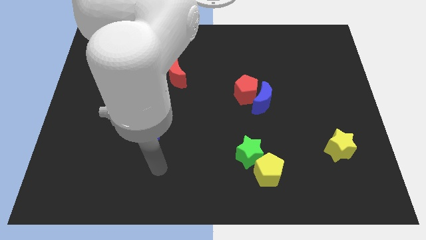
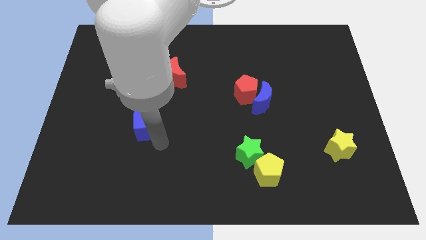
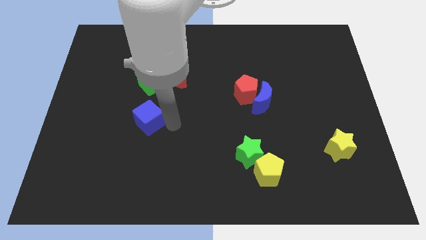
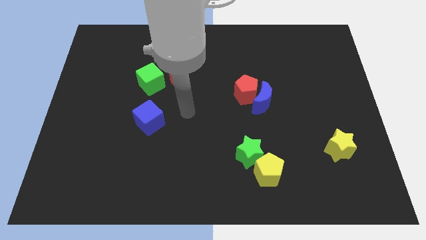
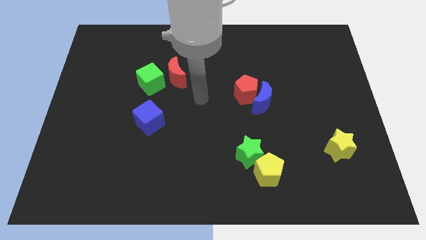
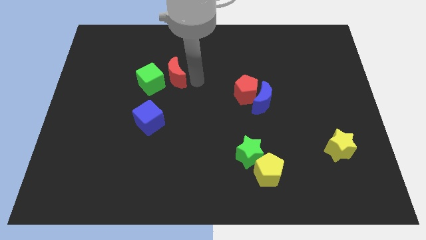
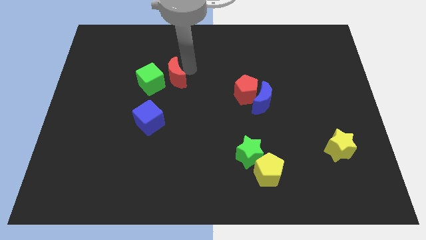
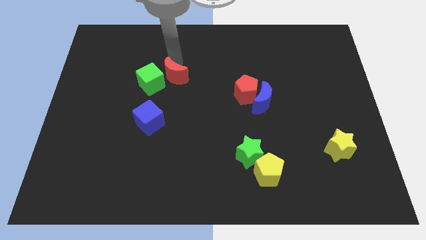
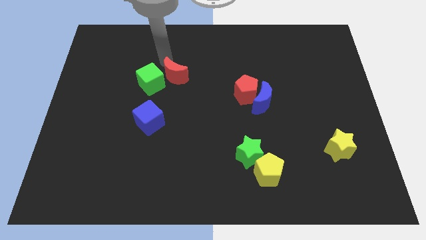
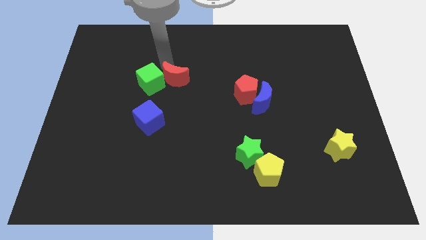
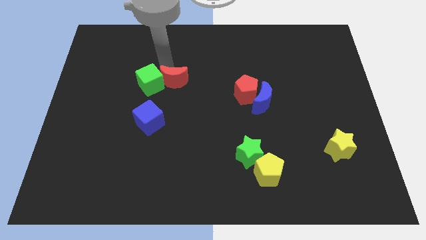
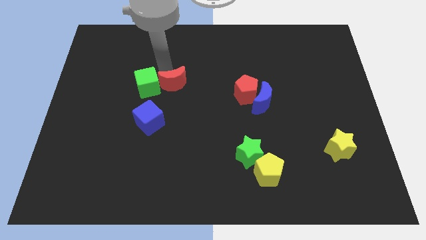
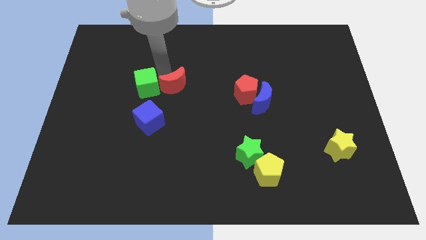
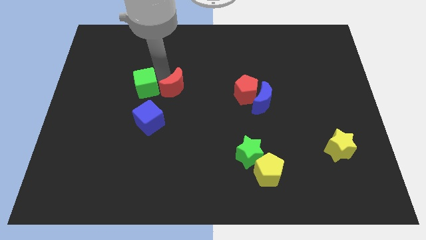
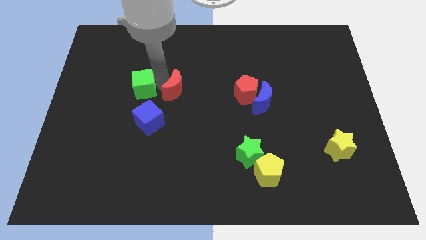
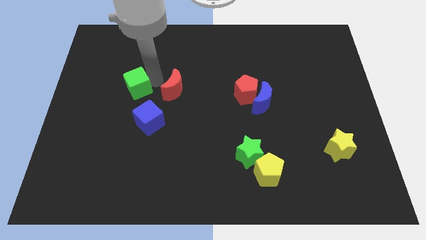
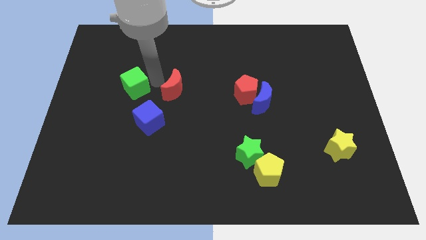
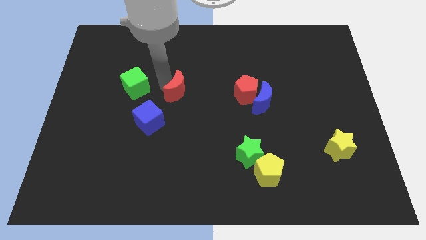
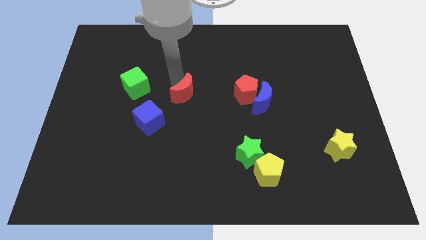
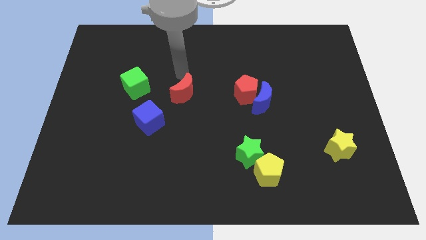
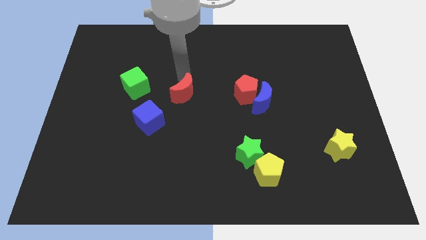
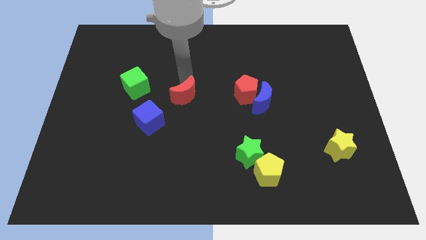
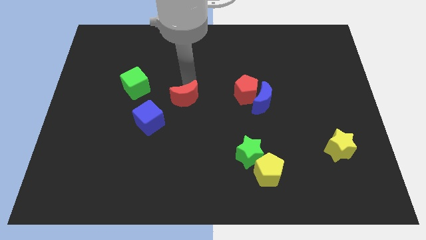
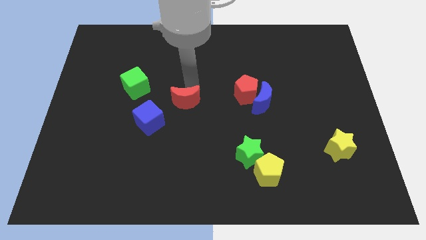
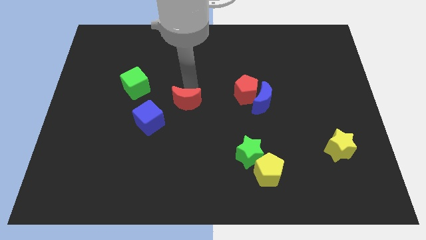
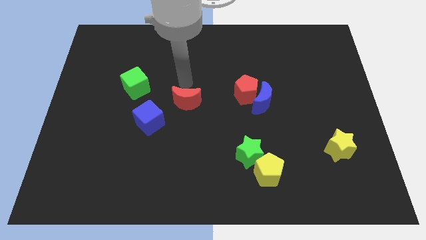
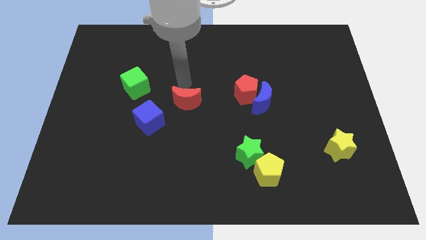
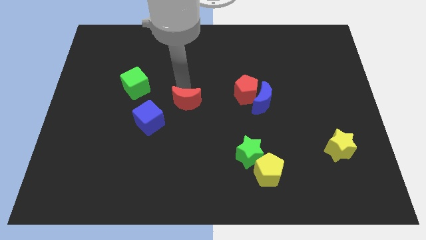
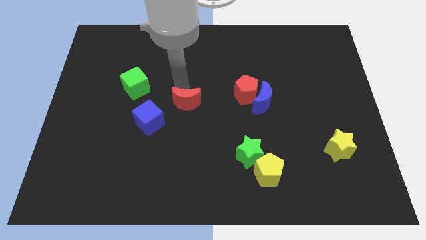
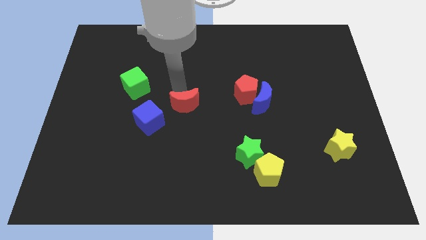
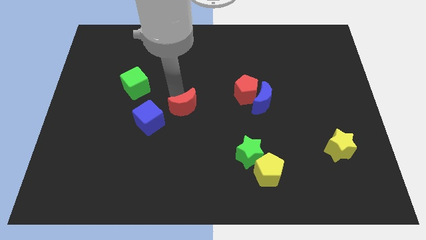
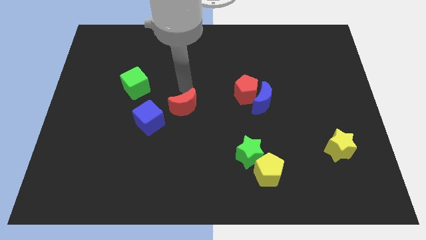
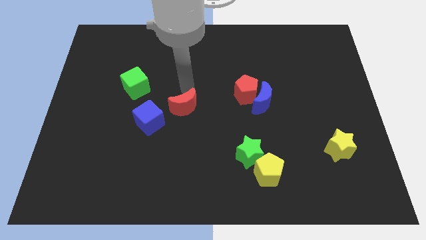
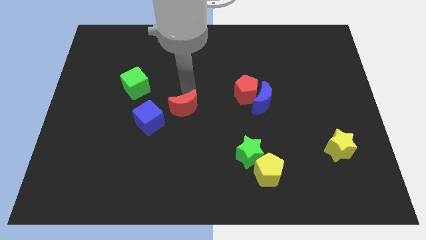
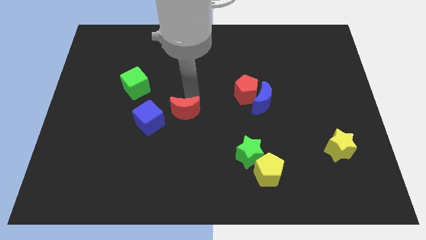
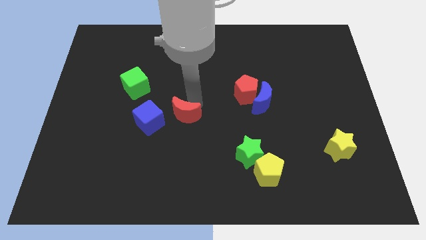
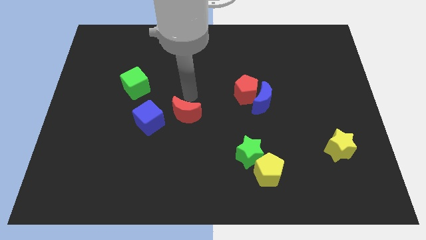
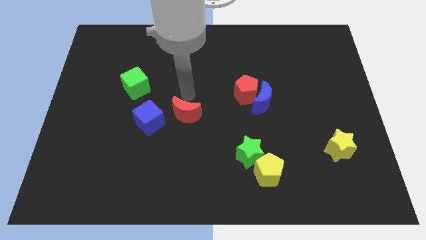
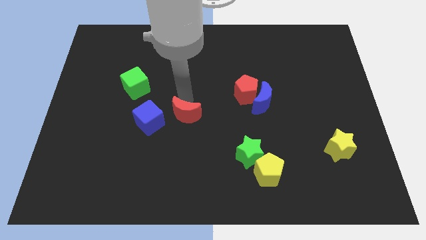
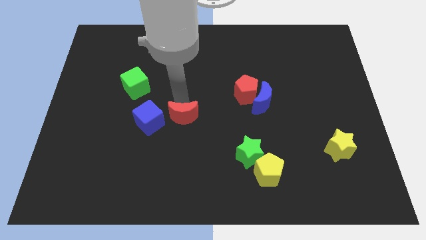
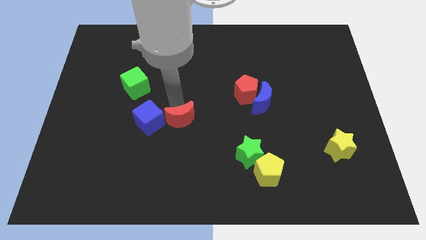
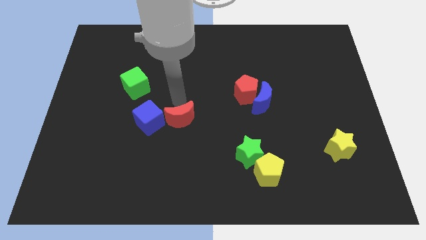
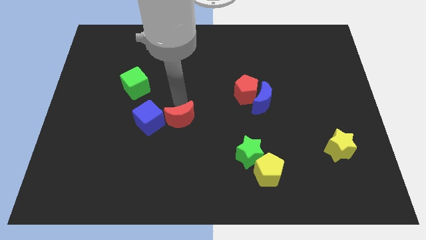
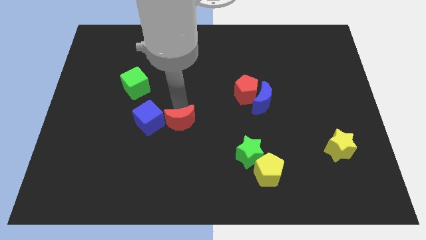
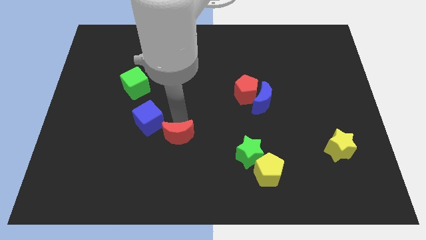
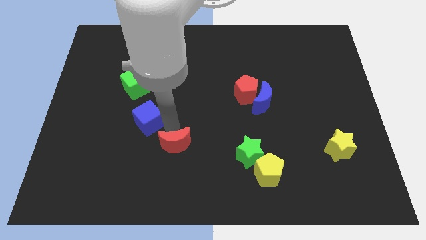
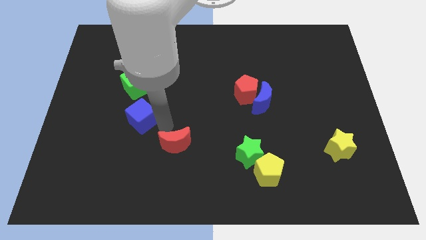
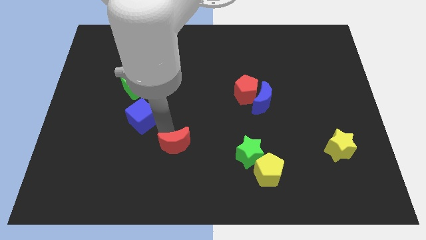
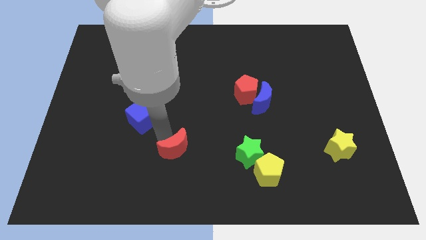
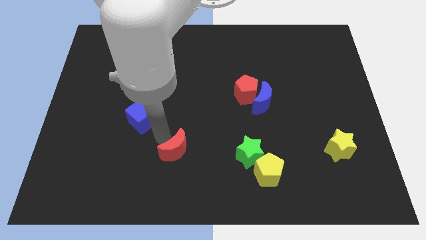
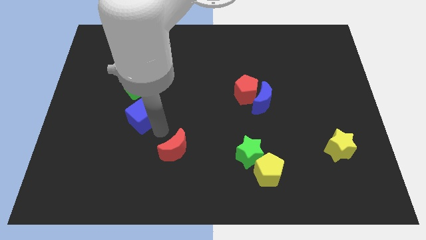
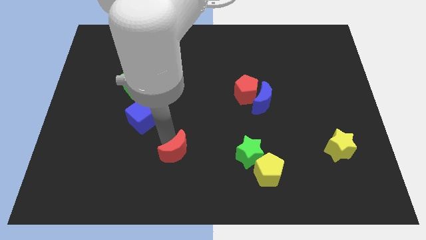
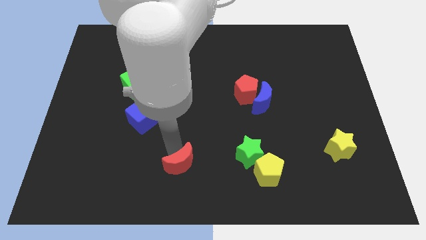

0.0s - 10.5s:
move the red moon to the bottom

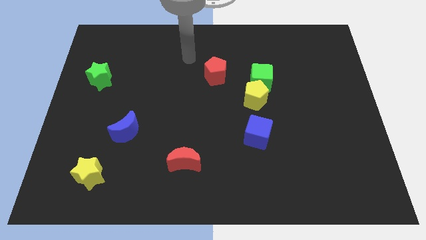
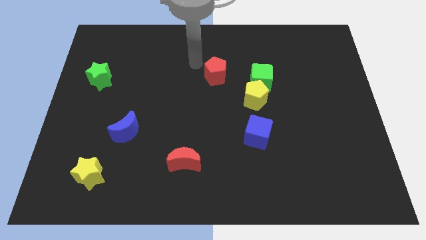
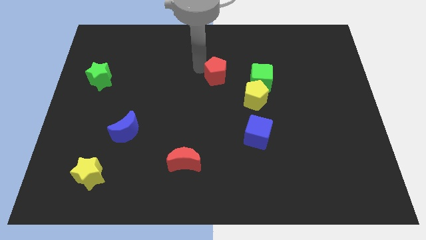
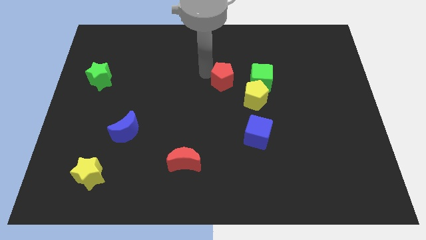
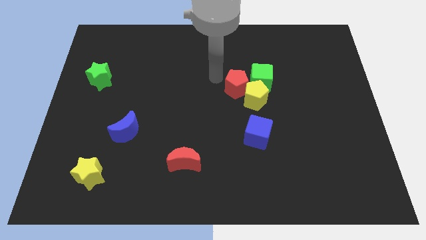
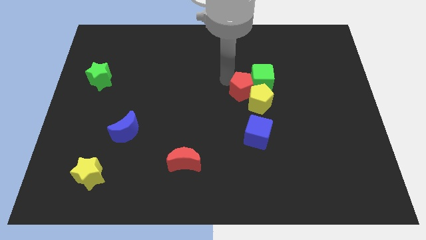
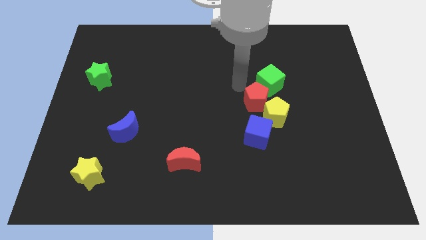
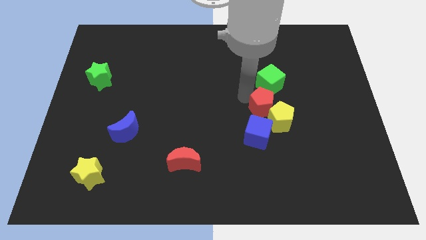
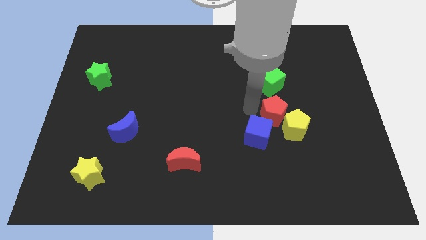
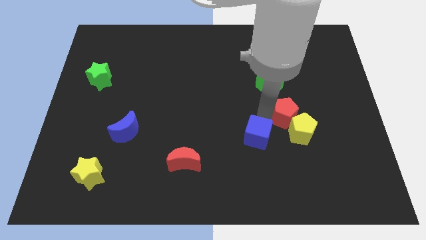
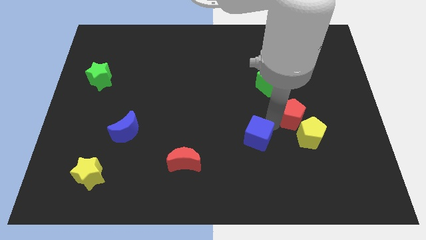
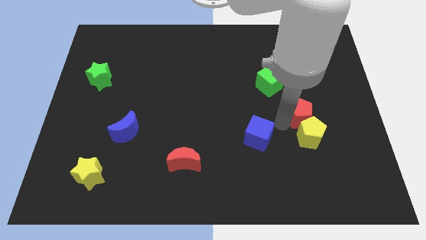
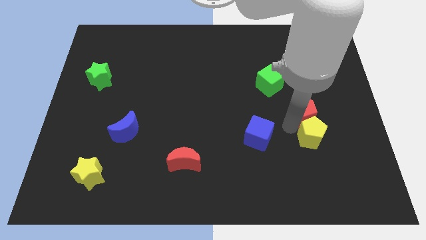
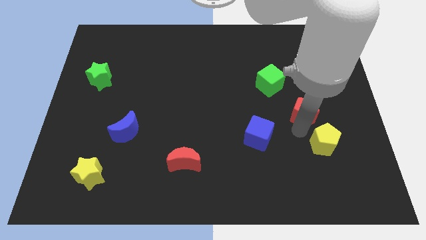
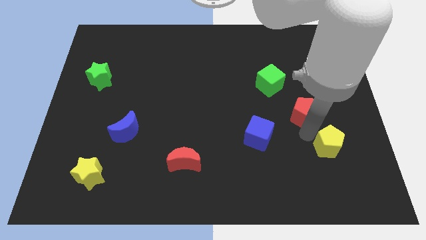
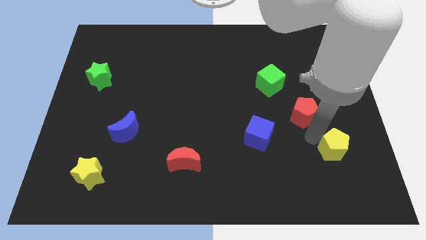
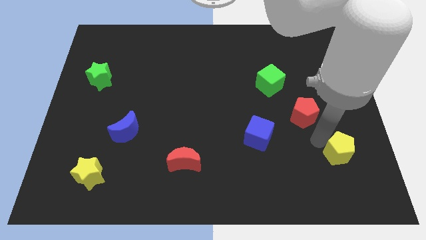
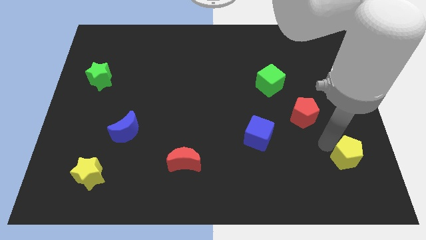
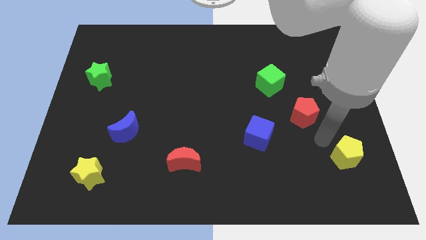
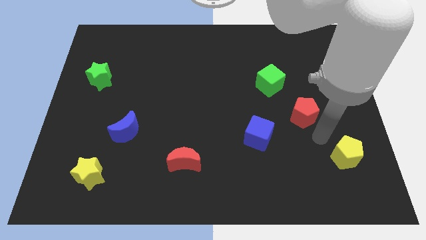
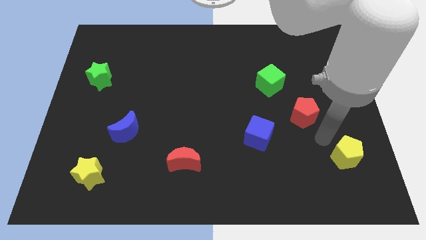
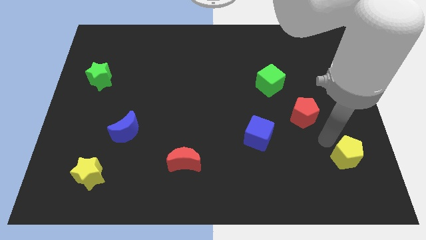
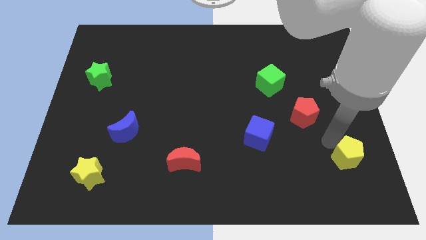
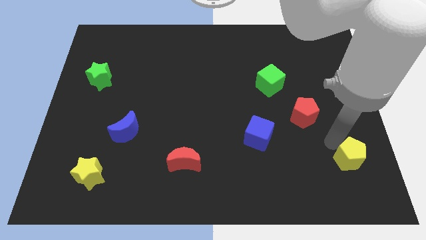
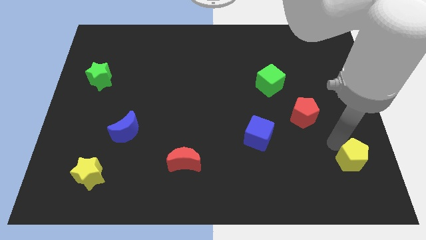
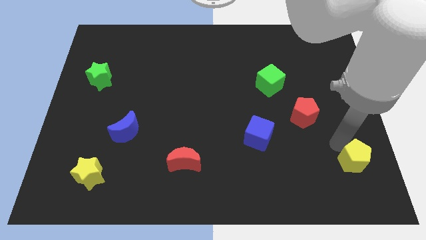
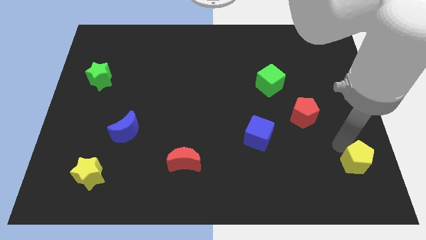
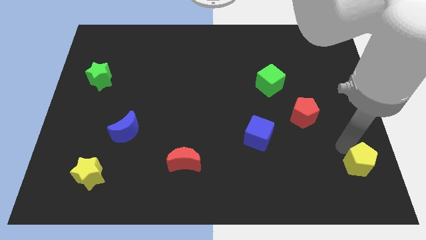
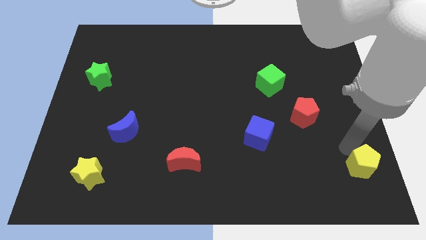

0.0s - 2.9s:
slide the yellow pentagon to the bottom right
